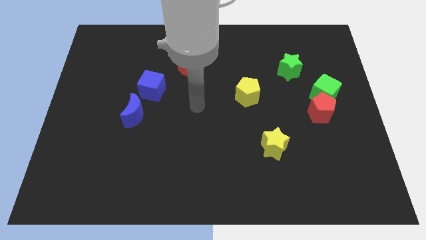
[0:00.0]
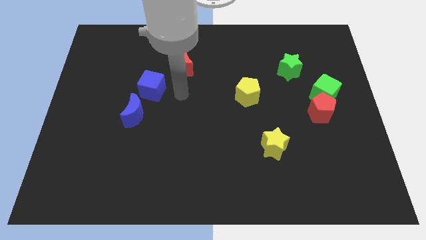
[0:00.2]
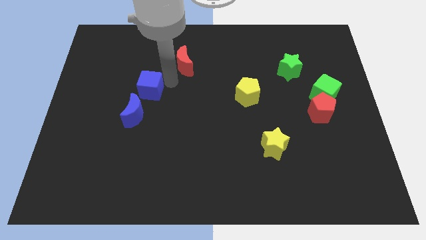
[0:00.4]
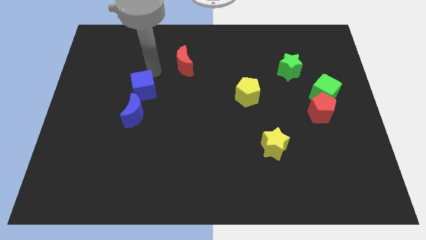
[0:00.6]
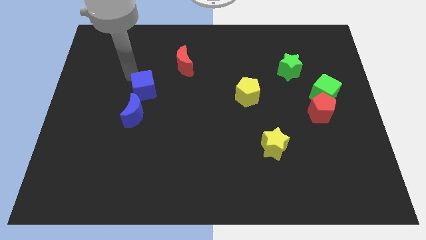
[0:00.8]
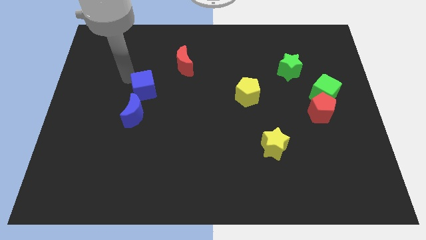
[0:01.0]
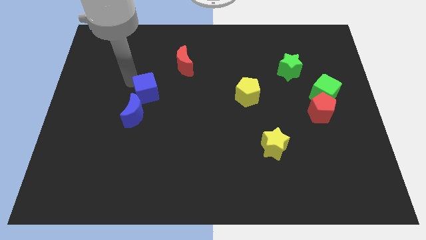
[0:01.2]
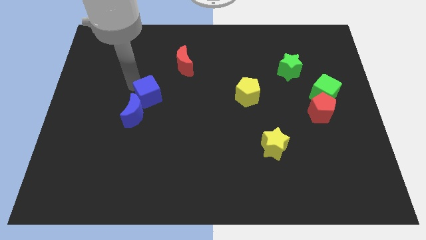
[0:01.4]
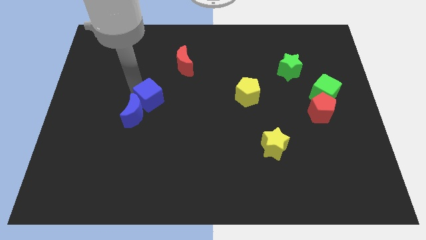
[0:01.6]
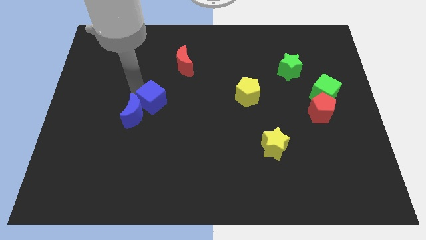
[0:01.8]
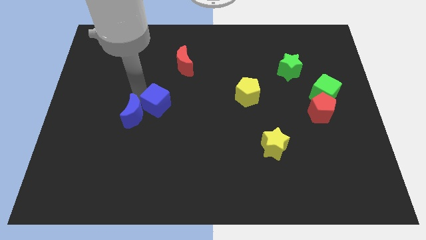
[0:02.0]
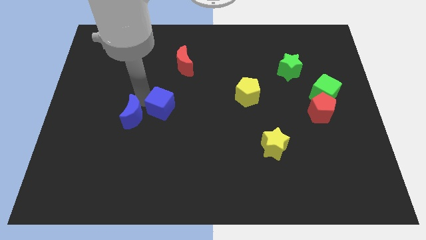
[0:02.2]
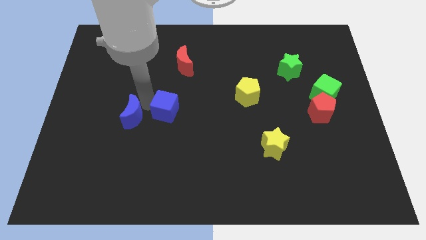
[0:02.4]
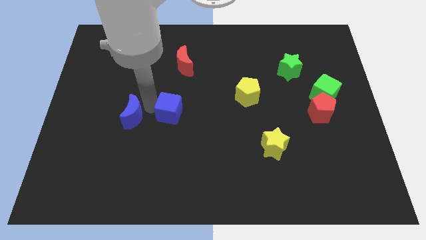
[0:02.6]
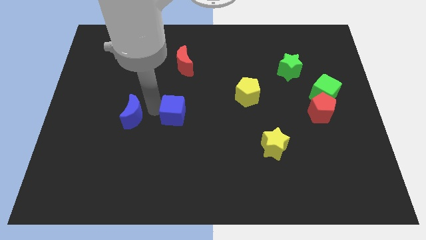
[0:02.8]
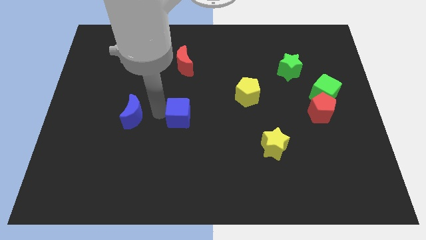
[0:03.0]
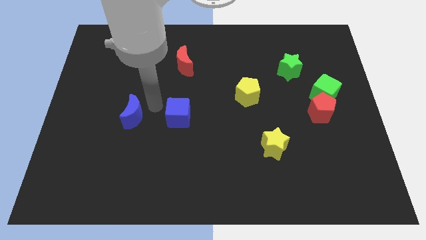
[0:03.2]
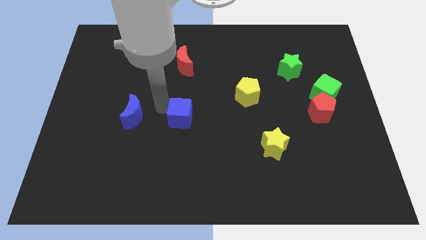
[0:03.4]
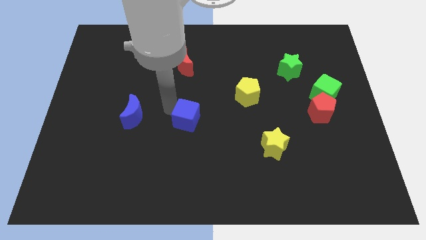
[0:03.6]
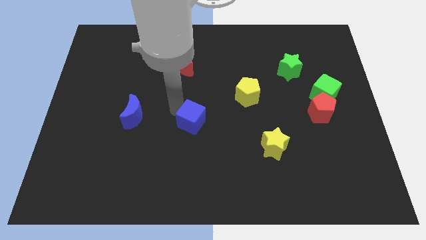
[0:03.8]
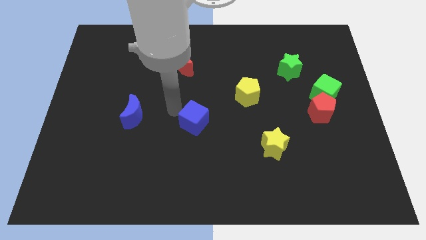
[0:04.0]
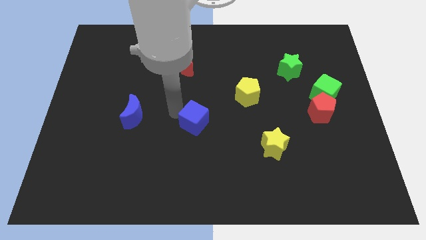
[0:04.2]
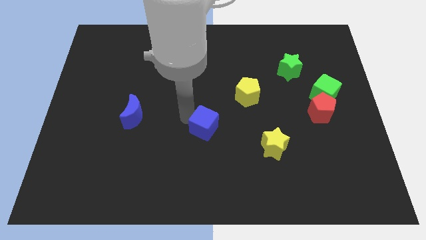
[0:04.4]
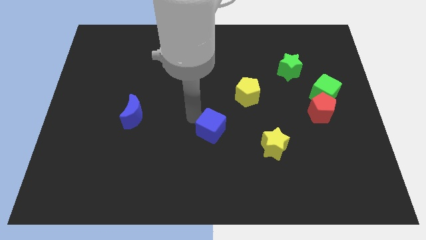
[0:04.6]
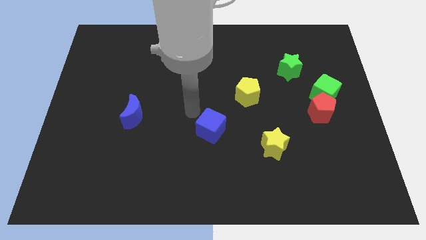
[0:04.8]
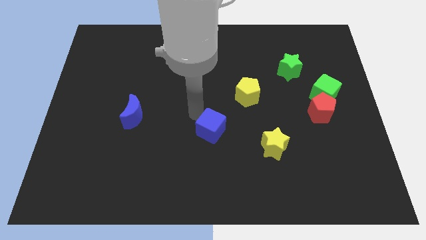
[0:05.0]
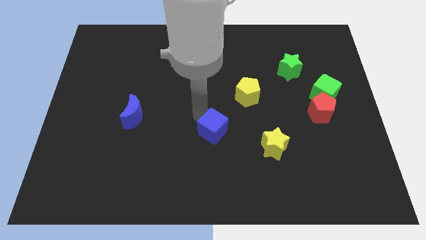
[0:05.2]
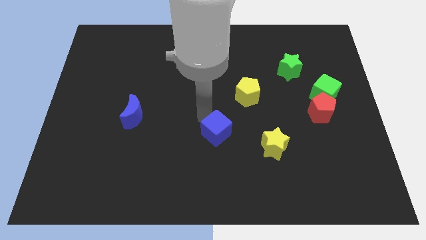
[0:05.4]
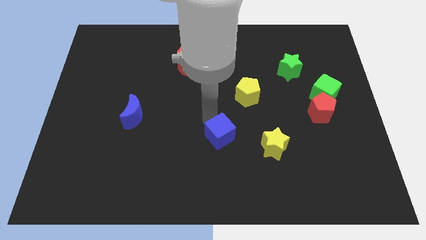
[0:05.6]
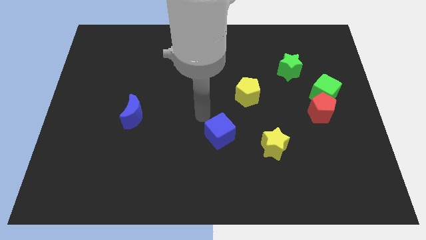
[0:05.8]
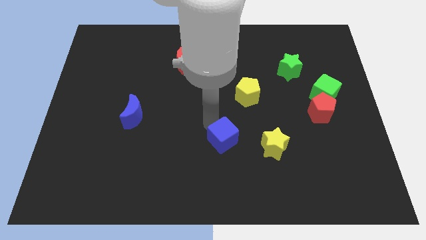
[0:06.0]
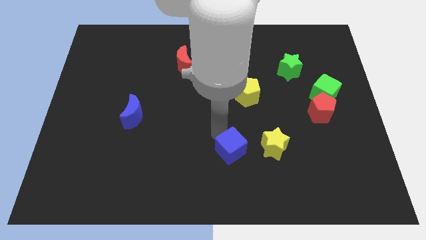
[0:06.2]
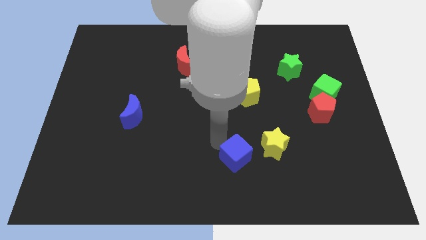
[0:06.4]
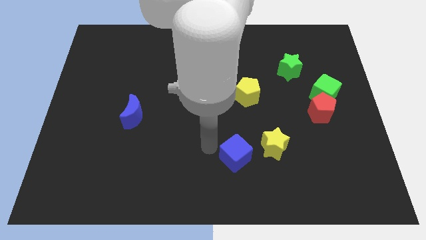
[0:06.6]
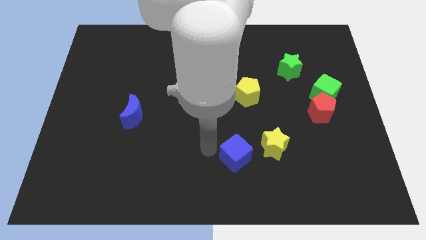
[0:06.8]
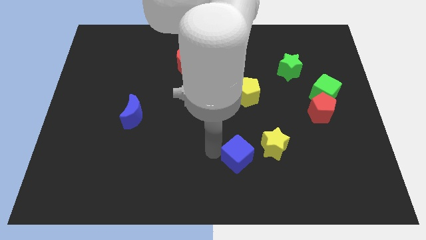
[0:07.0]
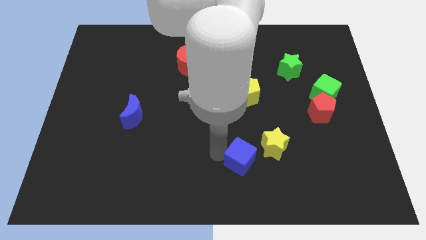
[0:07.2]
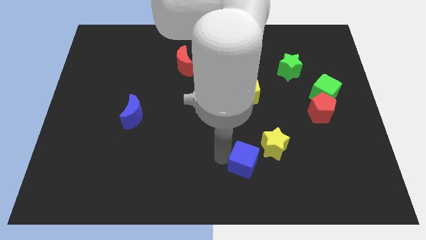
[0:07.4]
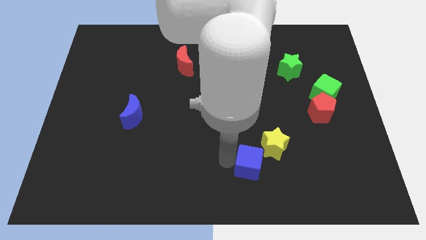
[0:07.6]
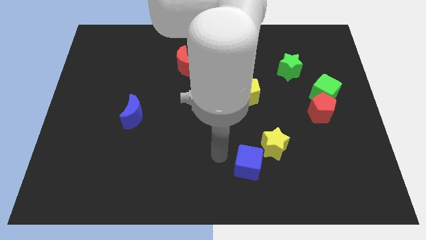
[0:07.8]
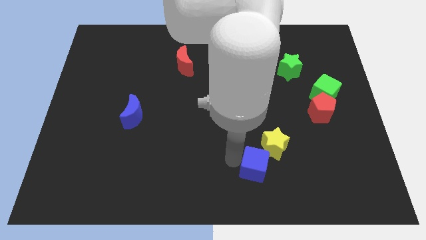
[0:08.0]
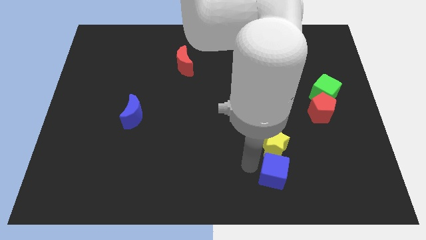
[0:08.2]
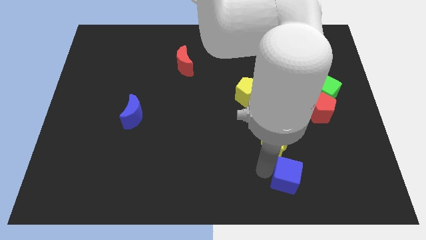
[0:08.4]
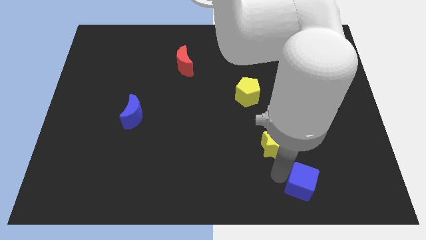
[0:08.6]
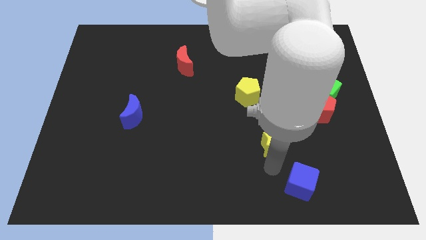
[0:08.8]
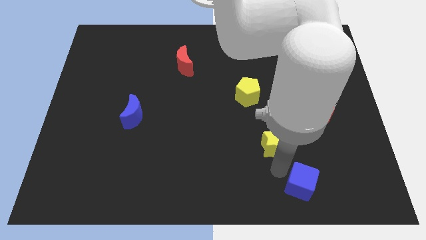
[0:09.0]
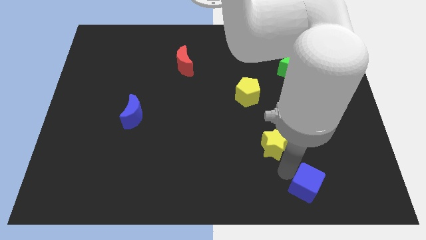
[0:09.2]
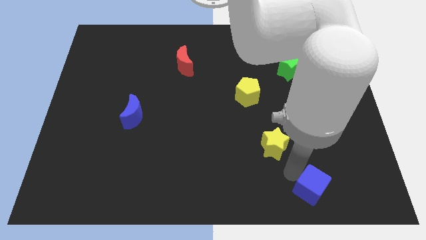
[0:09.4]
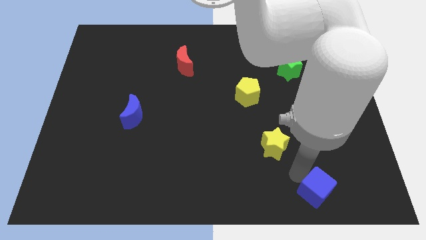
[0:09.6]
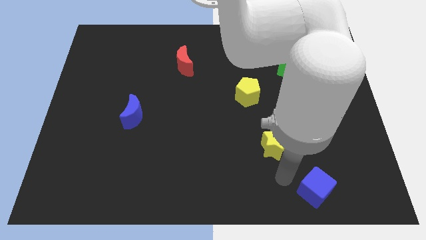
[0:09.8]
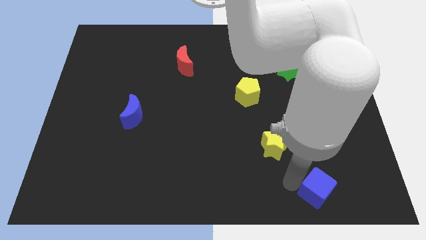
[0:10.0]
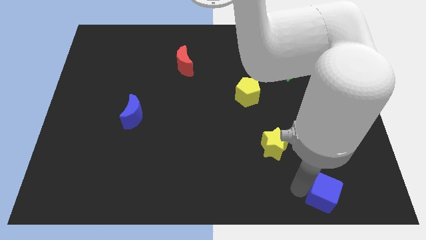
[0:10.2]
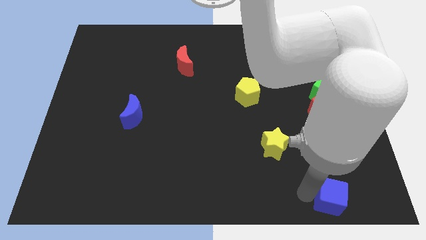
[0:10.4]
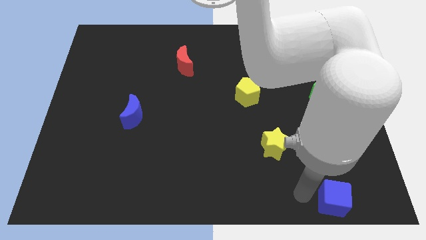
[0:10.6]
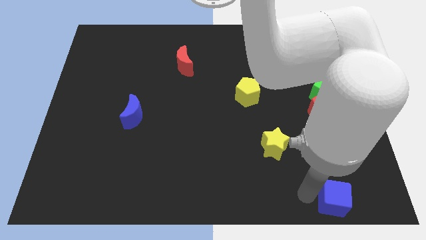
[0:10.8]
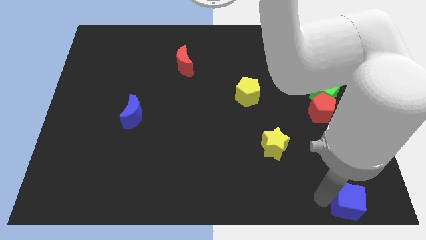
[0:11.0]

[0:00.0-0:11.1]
slide the blue cube to the lower right corner

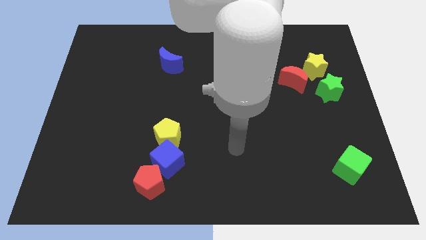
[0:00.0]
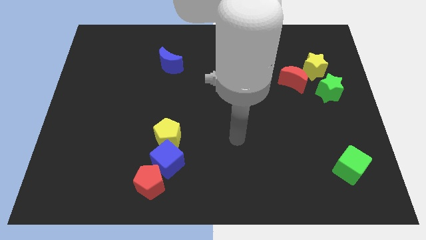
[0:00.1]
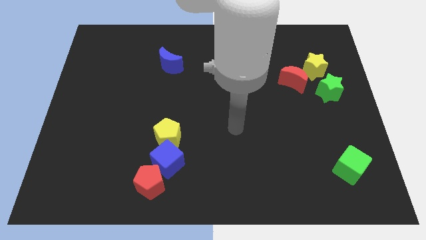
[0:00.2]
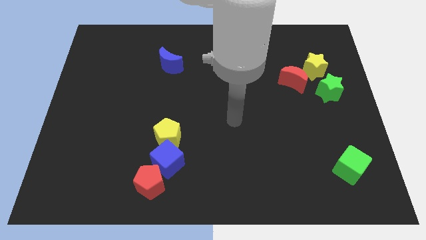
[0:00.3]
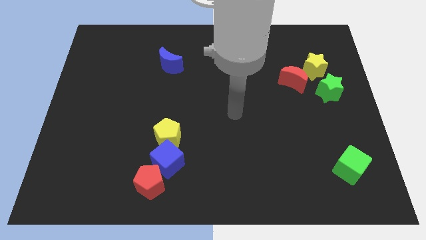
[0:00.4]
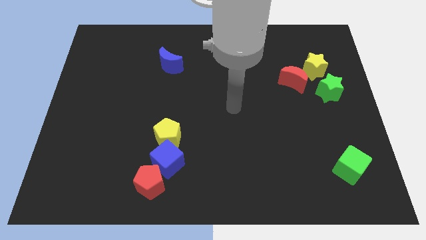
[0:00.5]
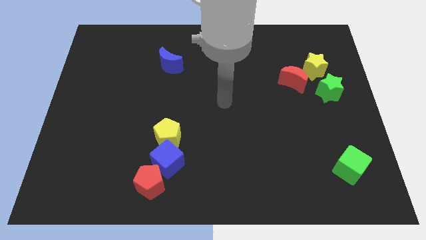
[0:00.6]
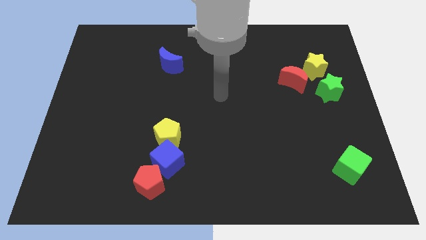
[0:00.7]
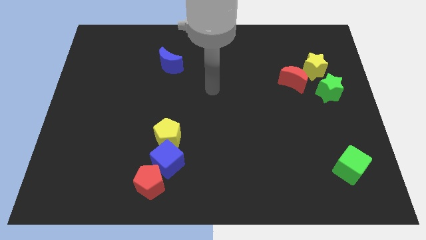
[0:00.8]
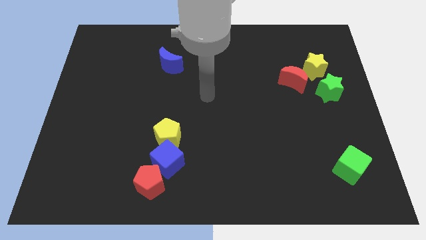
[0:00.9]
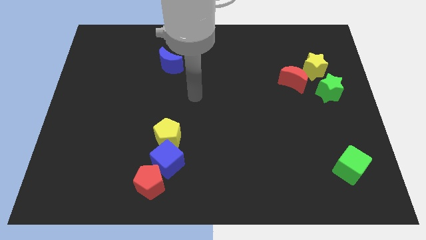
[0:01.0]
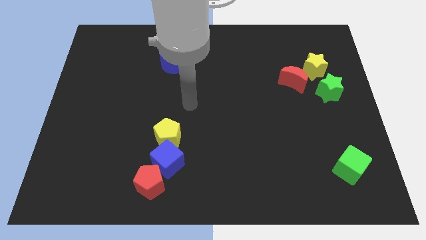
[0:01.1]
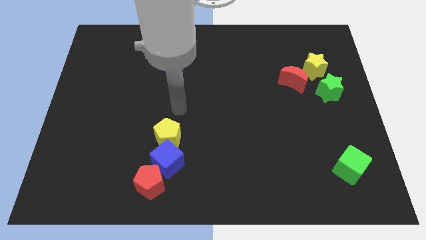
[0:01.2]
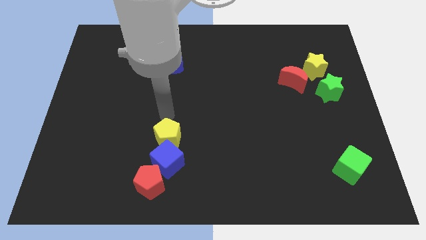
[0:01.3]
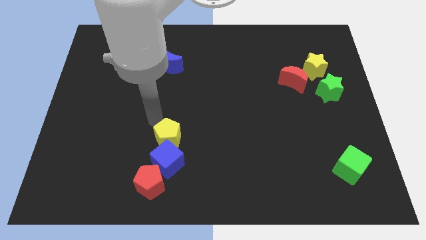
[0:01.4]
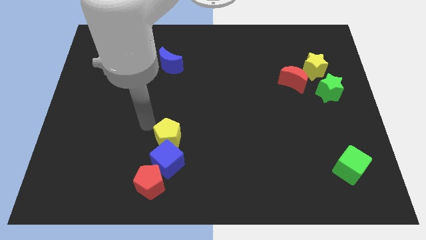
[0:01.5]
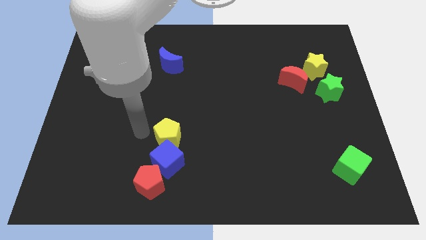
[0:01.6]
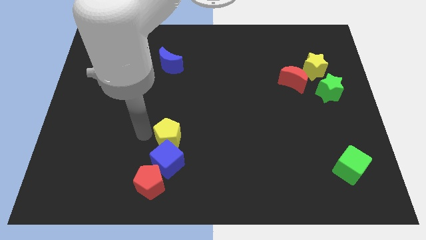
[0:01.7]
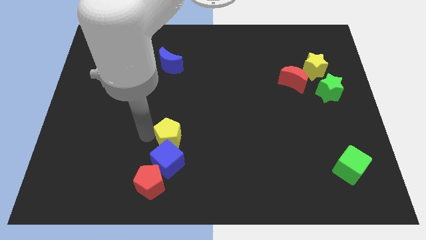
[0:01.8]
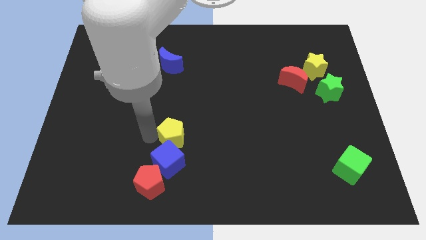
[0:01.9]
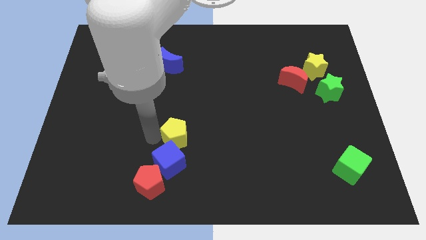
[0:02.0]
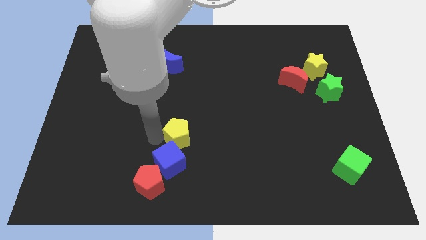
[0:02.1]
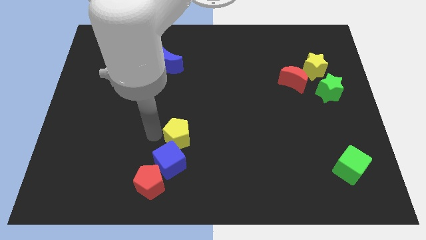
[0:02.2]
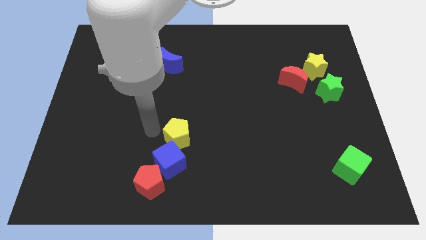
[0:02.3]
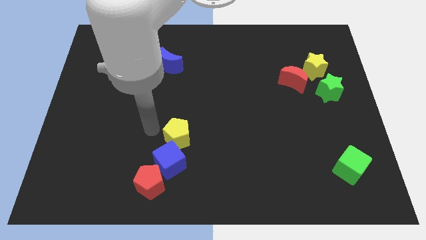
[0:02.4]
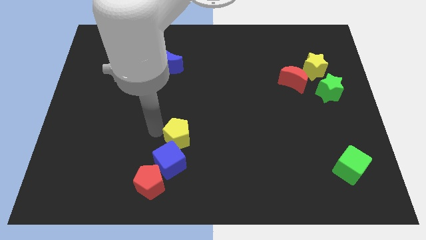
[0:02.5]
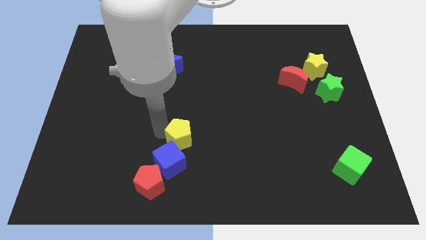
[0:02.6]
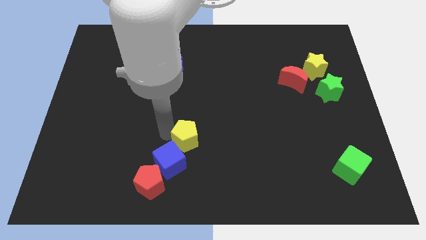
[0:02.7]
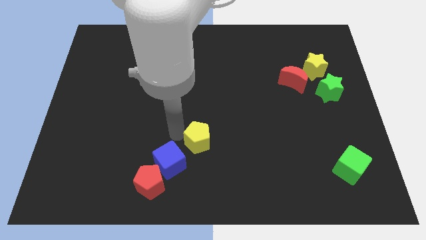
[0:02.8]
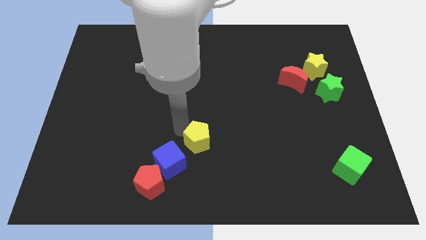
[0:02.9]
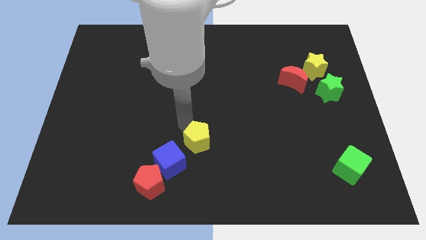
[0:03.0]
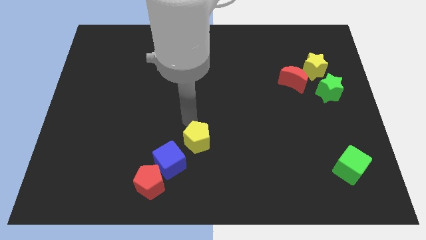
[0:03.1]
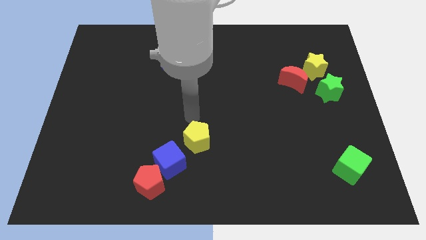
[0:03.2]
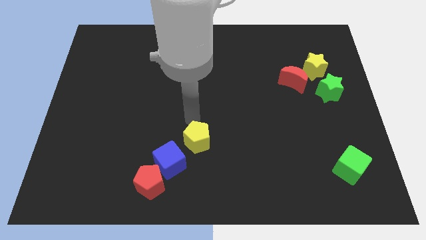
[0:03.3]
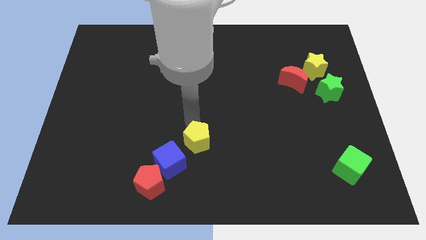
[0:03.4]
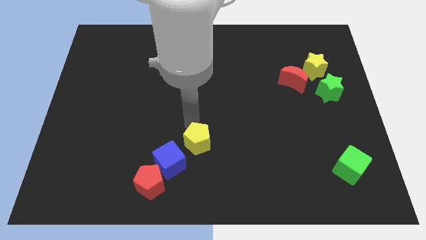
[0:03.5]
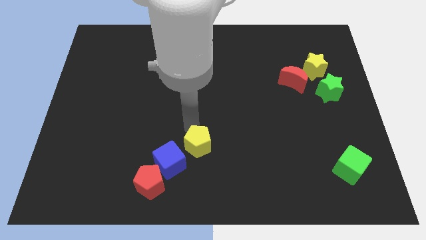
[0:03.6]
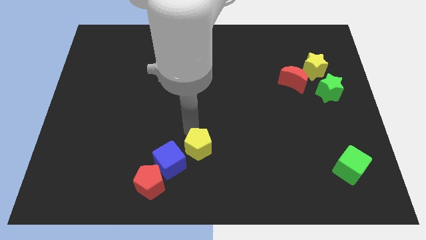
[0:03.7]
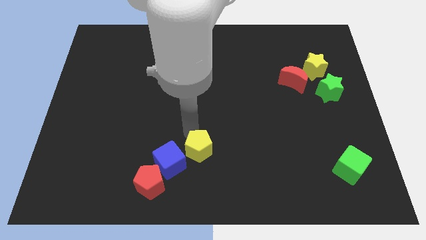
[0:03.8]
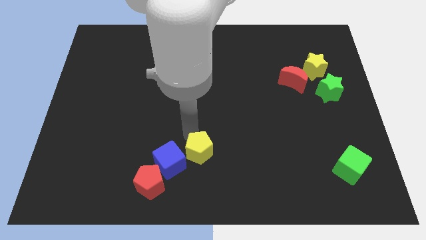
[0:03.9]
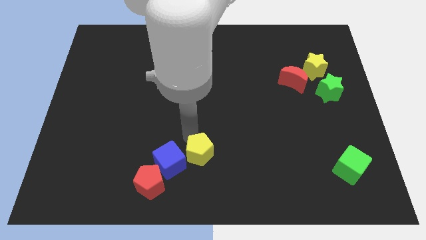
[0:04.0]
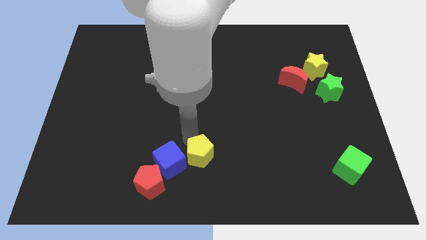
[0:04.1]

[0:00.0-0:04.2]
slide the yellow pentagon to the bottom side
